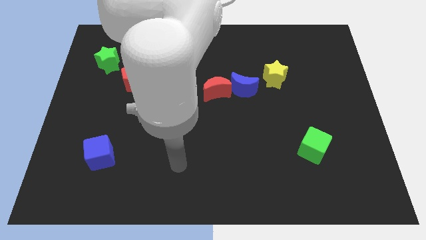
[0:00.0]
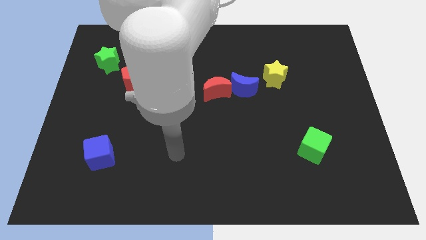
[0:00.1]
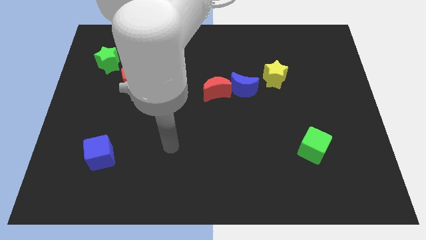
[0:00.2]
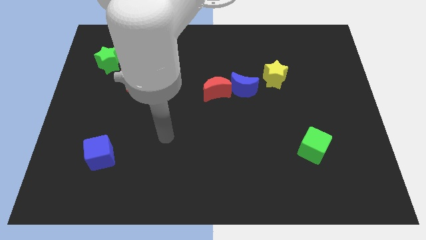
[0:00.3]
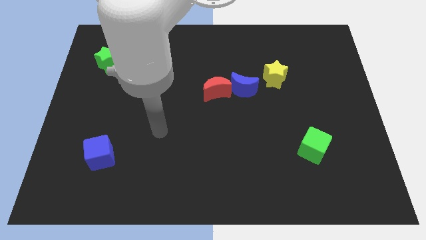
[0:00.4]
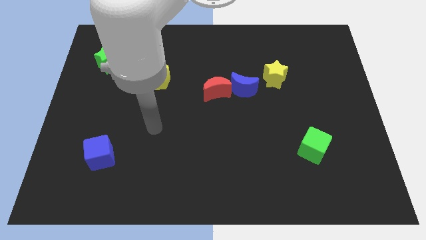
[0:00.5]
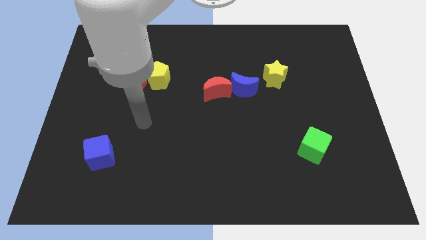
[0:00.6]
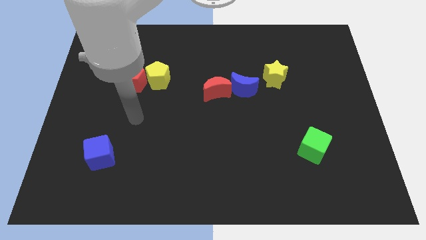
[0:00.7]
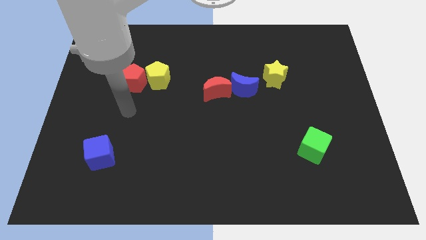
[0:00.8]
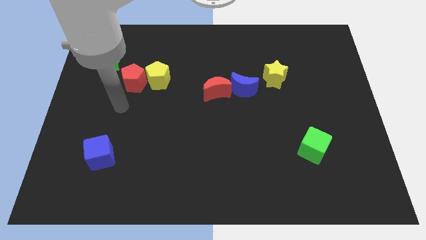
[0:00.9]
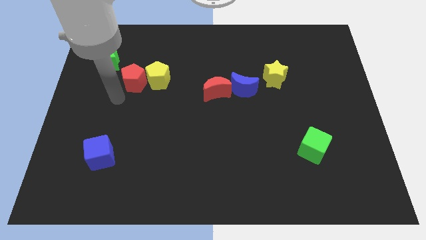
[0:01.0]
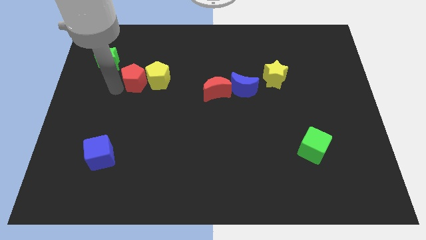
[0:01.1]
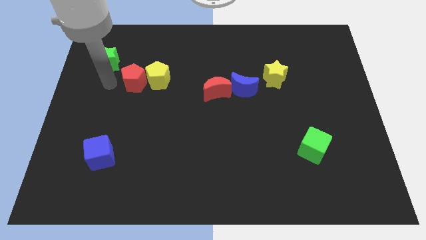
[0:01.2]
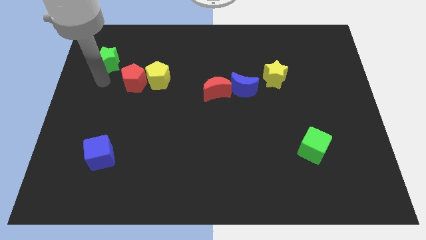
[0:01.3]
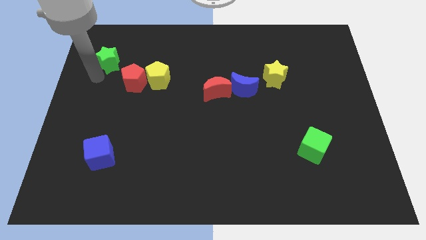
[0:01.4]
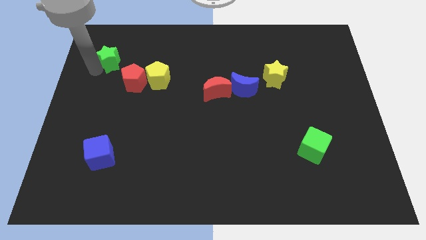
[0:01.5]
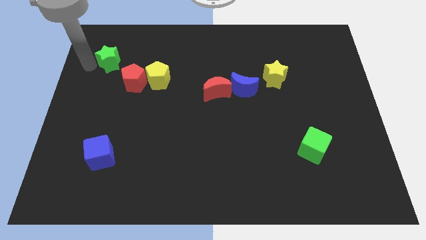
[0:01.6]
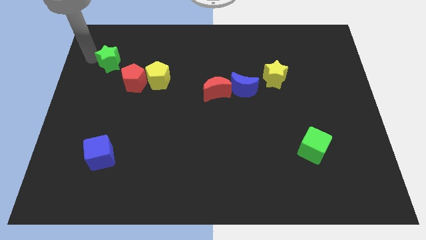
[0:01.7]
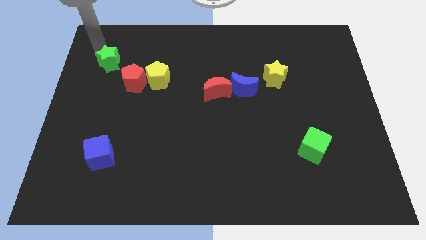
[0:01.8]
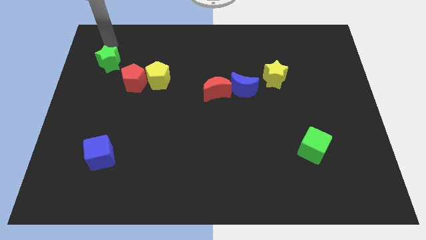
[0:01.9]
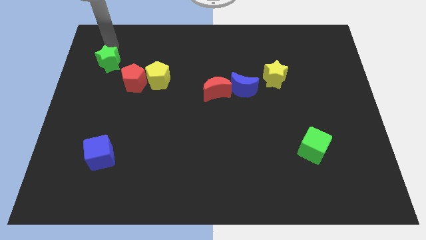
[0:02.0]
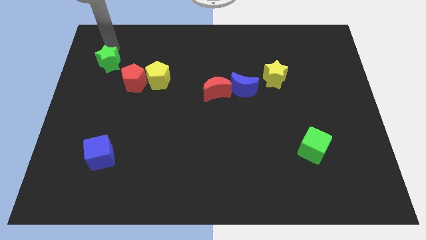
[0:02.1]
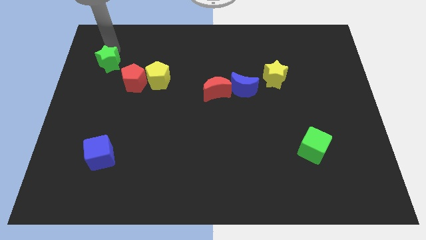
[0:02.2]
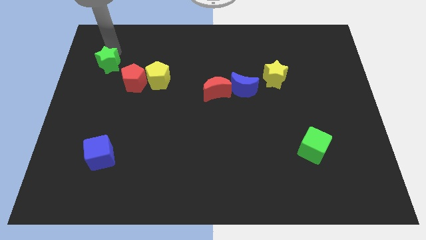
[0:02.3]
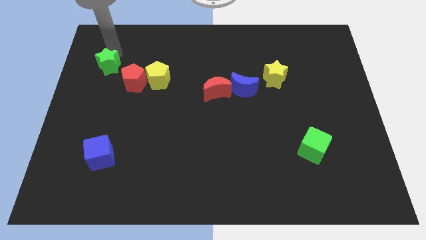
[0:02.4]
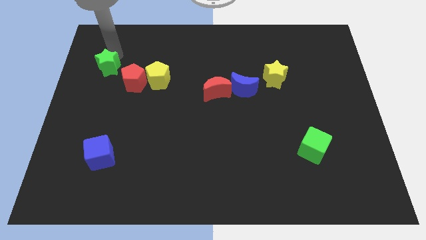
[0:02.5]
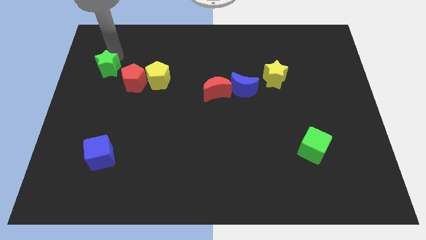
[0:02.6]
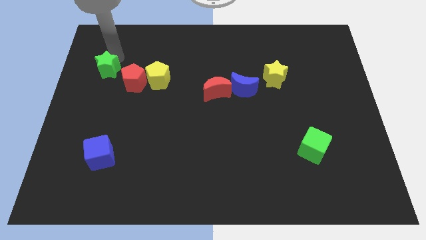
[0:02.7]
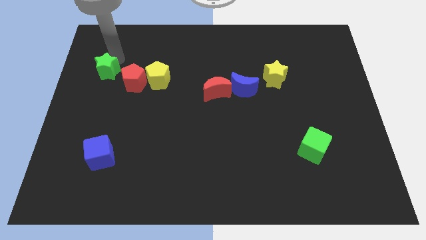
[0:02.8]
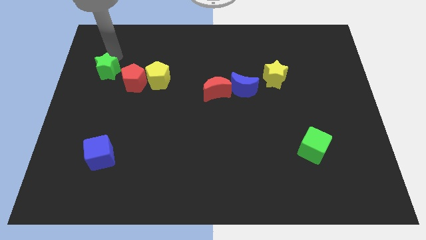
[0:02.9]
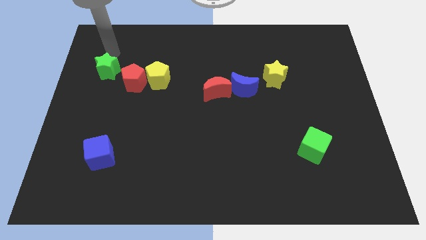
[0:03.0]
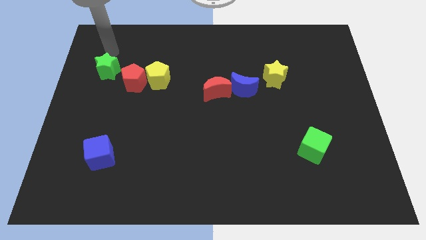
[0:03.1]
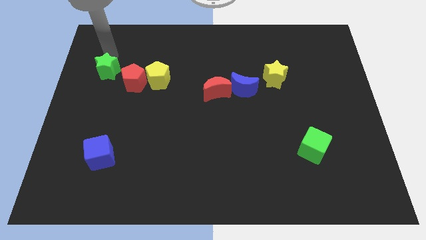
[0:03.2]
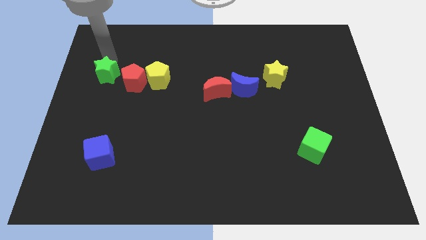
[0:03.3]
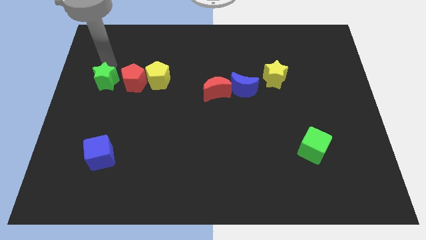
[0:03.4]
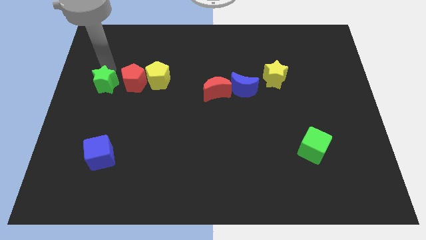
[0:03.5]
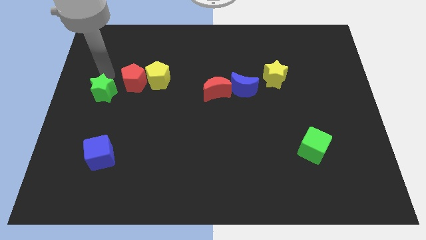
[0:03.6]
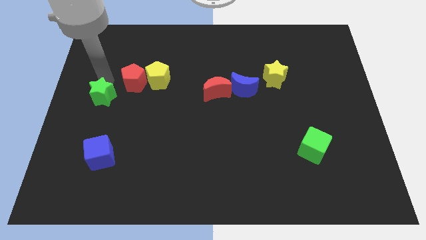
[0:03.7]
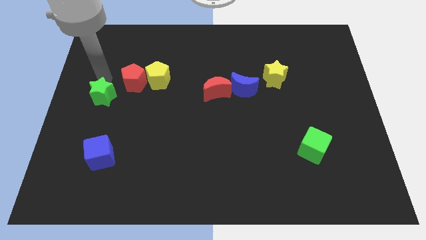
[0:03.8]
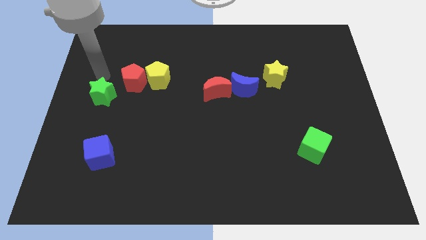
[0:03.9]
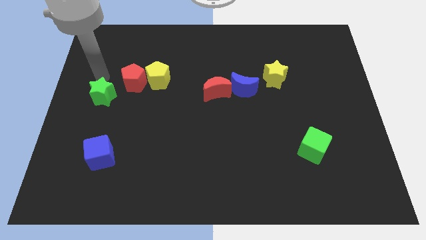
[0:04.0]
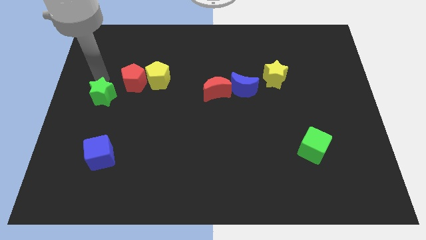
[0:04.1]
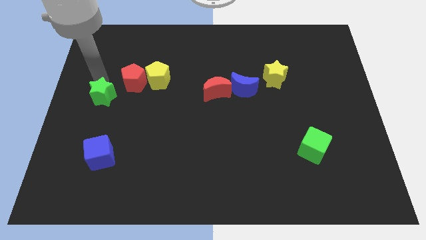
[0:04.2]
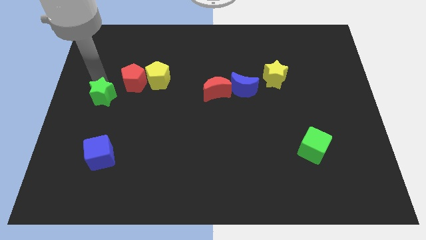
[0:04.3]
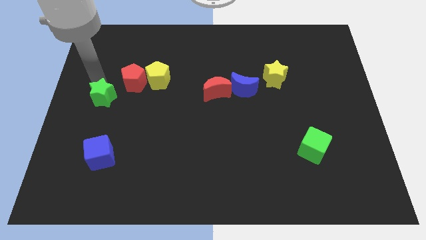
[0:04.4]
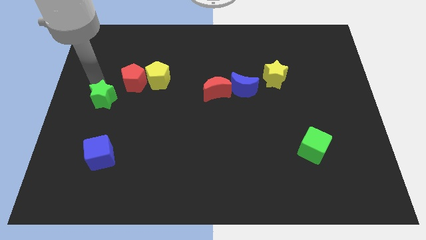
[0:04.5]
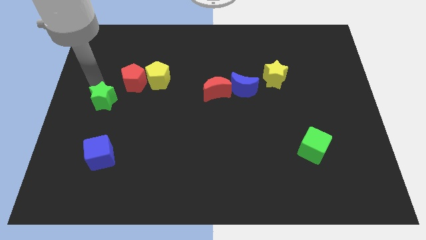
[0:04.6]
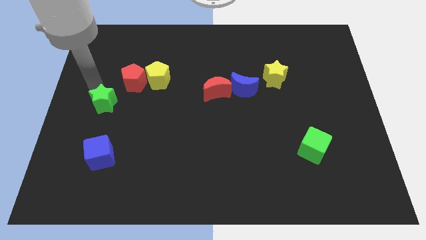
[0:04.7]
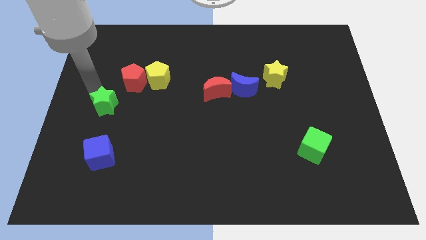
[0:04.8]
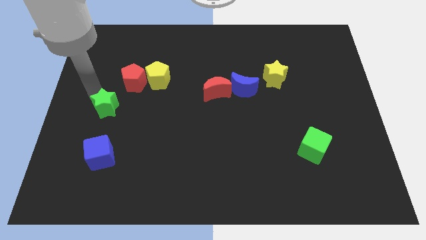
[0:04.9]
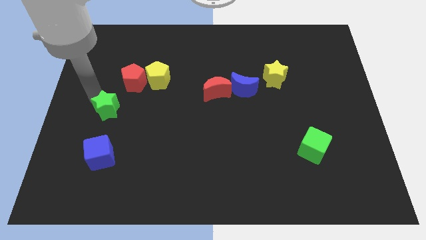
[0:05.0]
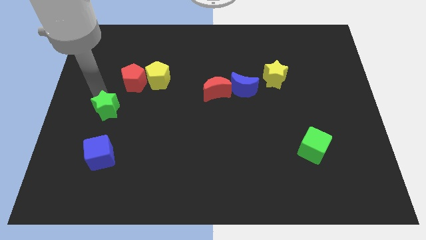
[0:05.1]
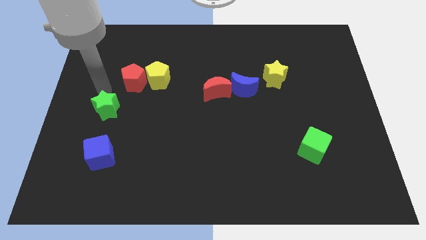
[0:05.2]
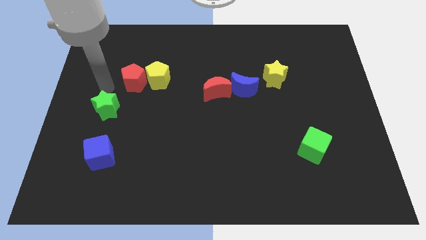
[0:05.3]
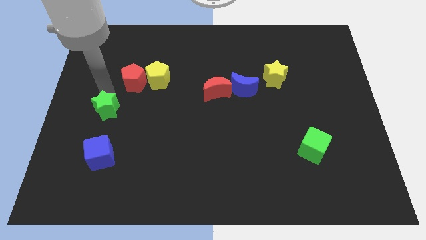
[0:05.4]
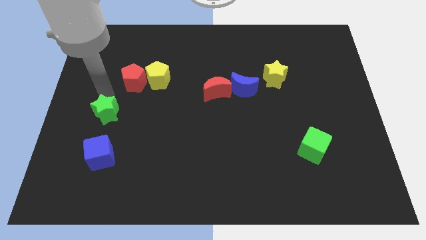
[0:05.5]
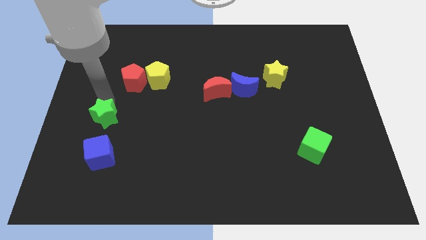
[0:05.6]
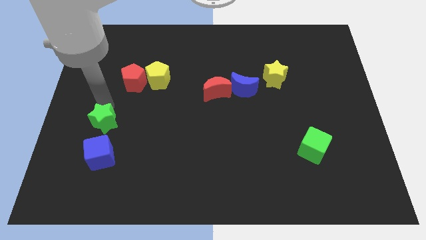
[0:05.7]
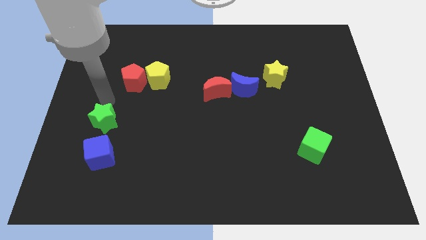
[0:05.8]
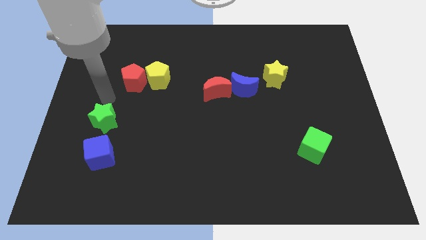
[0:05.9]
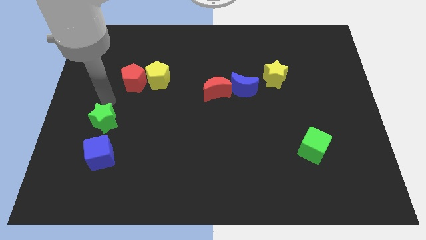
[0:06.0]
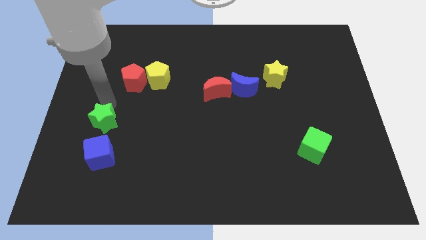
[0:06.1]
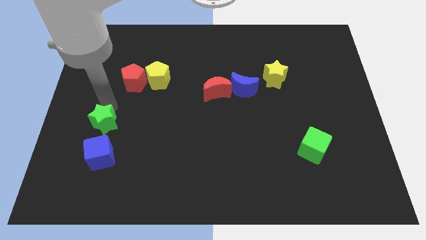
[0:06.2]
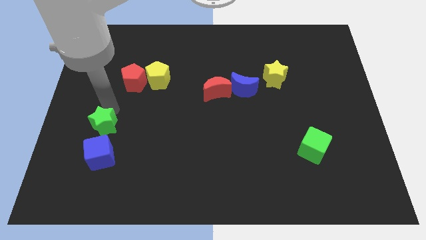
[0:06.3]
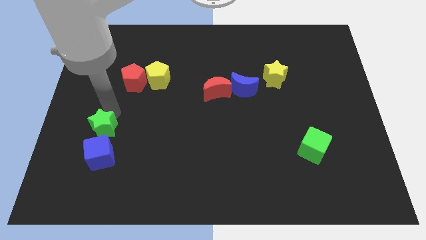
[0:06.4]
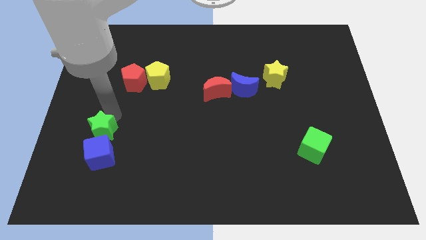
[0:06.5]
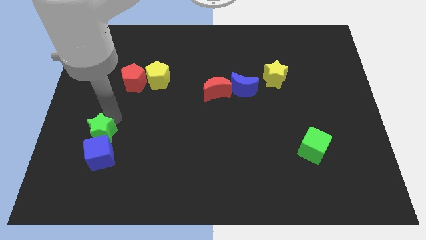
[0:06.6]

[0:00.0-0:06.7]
slide the green star to the blue cube
